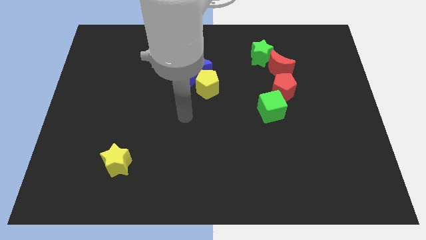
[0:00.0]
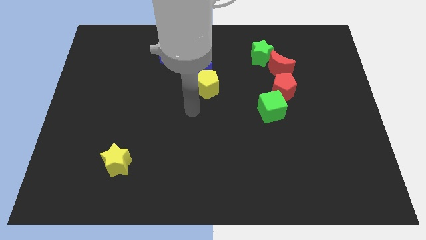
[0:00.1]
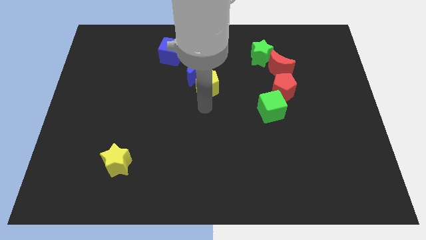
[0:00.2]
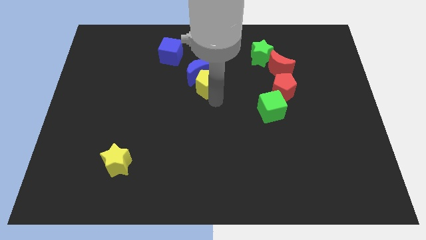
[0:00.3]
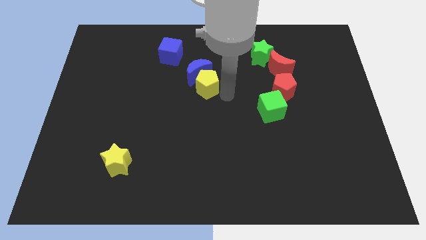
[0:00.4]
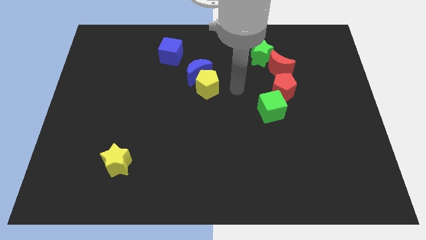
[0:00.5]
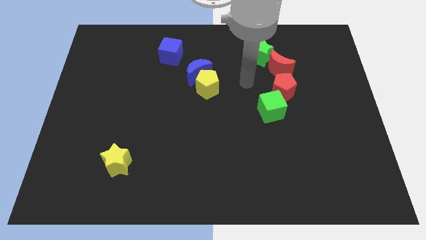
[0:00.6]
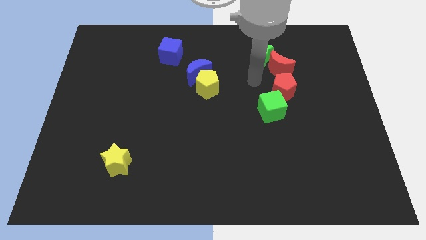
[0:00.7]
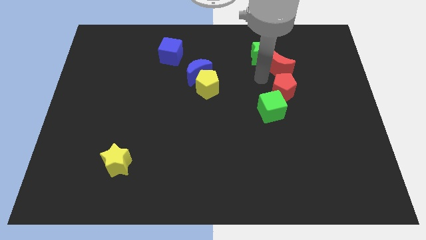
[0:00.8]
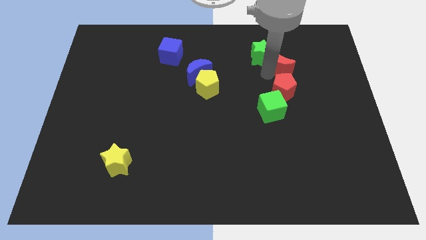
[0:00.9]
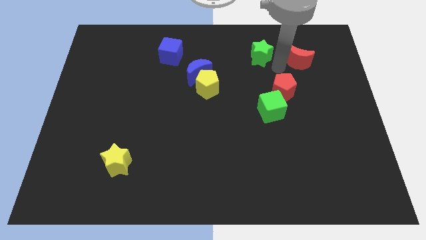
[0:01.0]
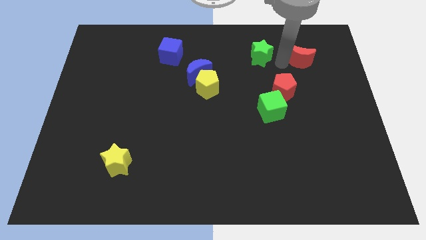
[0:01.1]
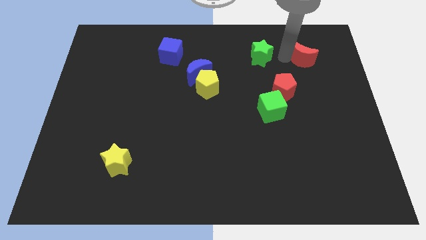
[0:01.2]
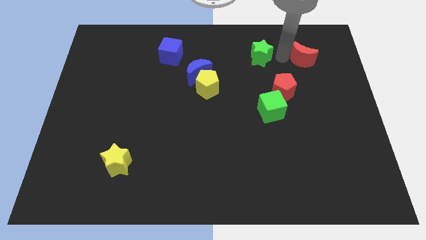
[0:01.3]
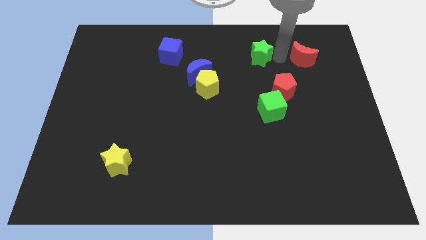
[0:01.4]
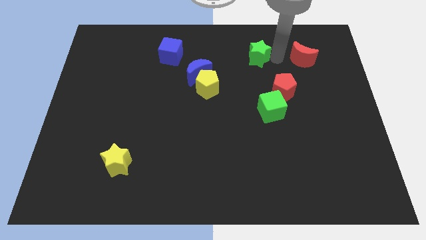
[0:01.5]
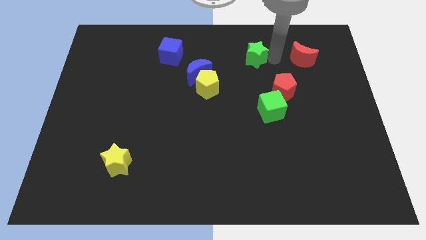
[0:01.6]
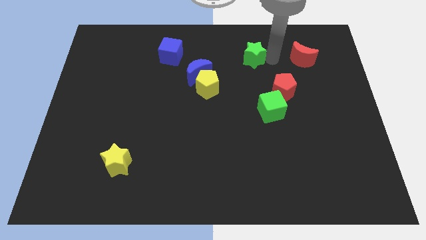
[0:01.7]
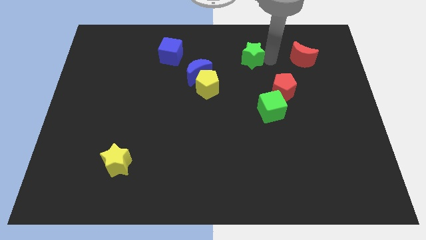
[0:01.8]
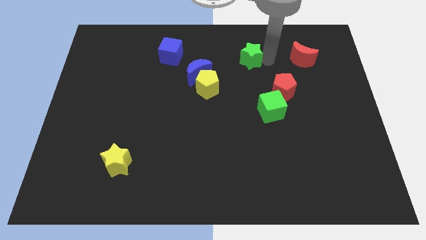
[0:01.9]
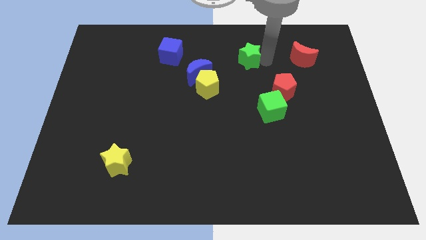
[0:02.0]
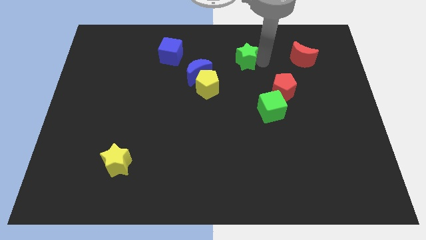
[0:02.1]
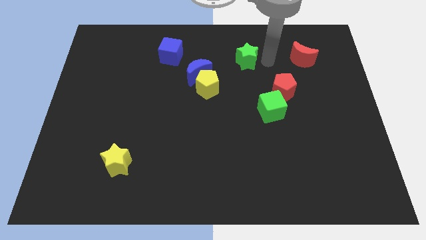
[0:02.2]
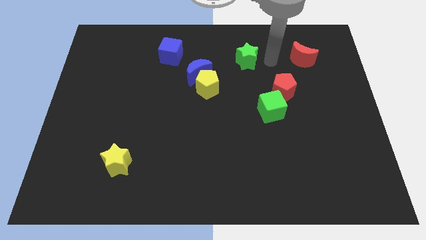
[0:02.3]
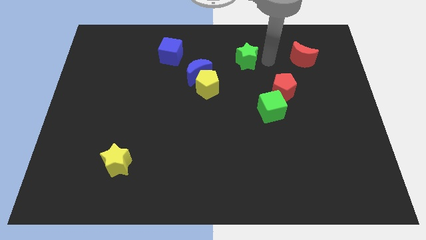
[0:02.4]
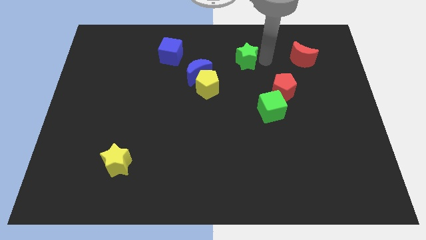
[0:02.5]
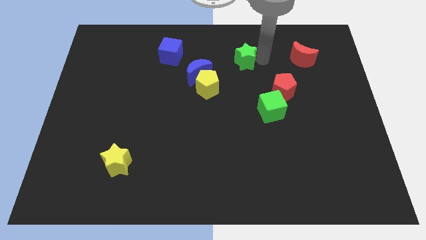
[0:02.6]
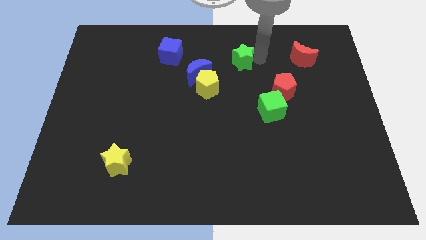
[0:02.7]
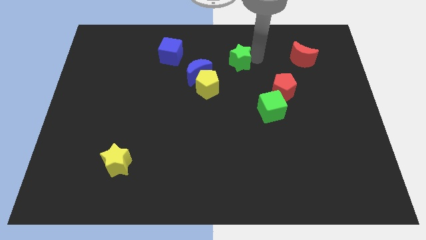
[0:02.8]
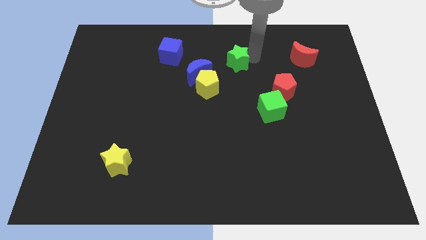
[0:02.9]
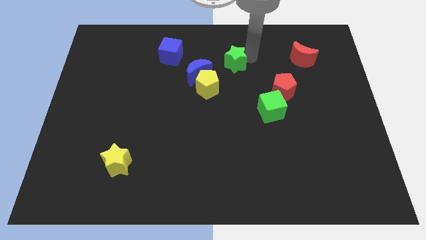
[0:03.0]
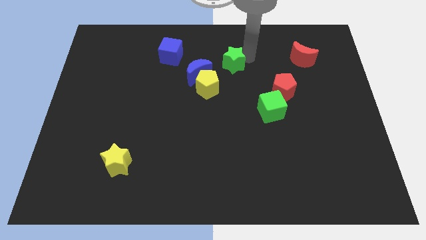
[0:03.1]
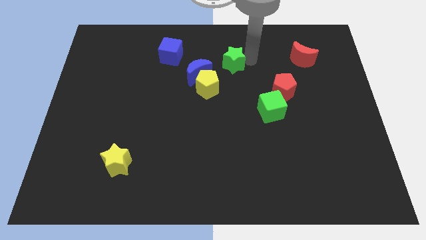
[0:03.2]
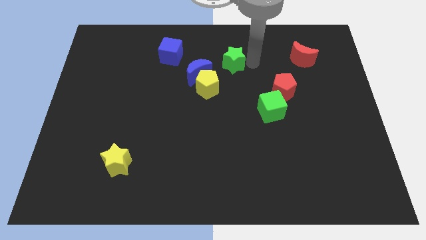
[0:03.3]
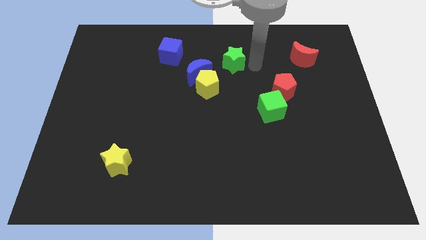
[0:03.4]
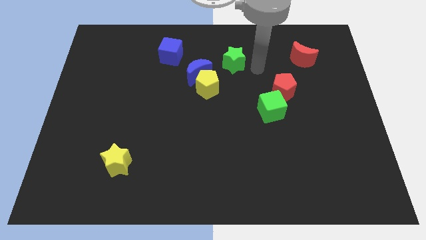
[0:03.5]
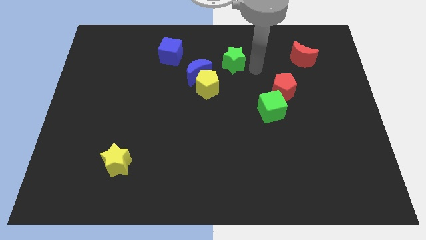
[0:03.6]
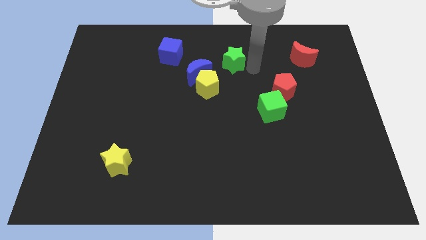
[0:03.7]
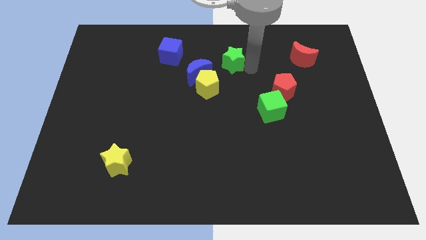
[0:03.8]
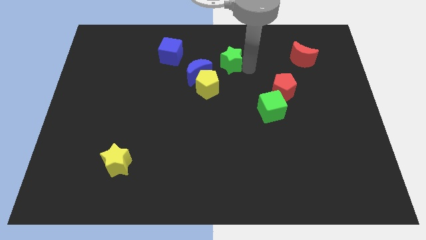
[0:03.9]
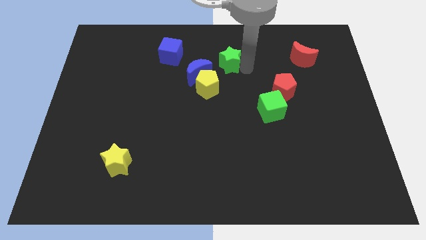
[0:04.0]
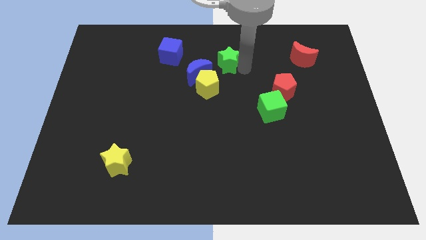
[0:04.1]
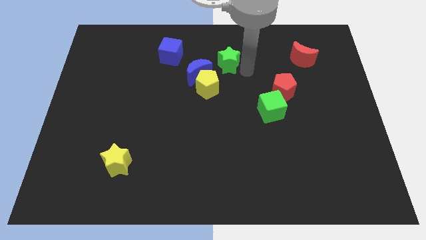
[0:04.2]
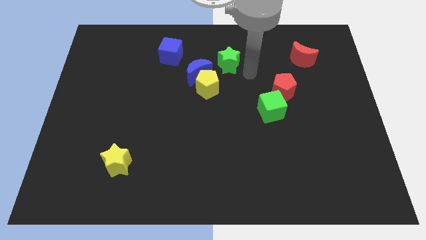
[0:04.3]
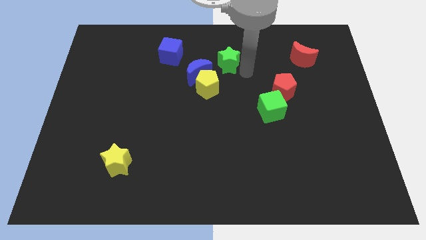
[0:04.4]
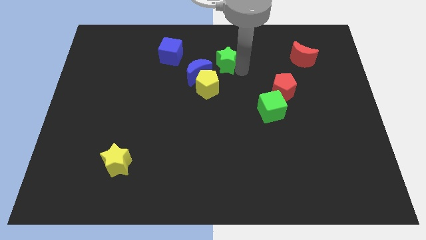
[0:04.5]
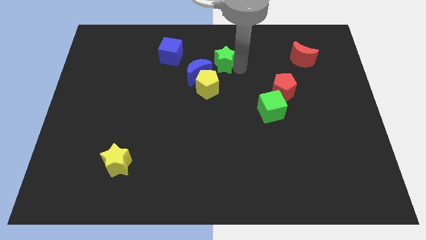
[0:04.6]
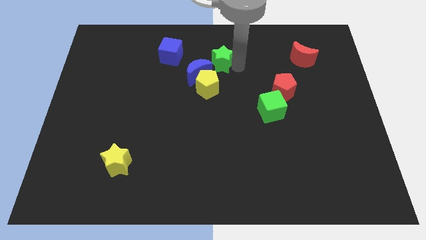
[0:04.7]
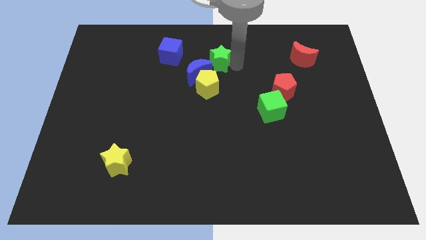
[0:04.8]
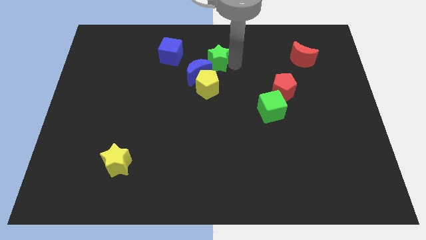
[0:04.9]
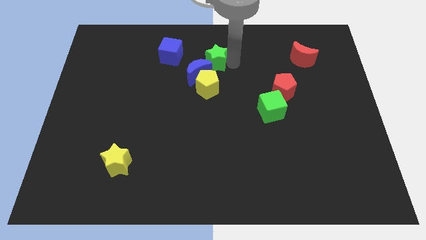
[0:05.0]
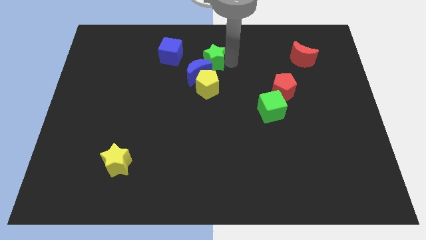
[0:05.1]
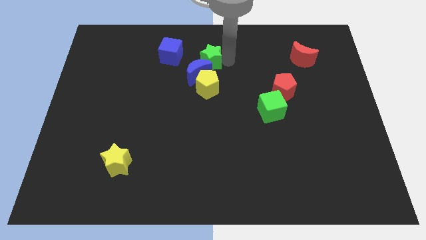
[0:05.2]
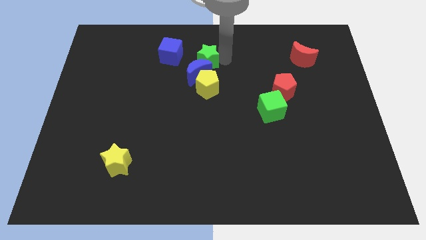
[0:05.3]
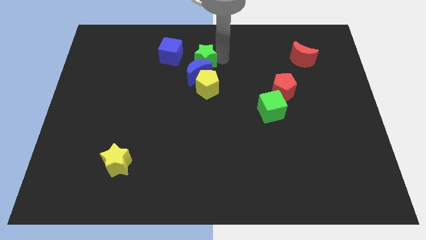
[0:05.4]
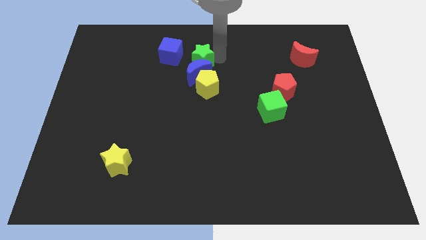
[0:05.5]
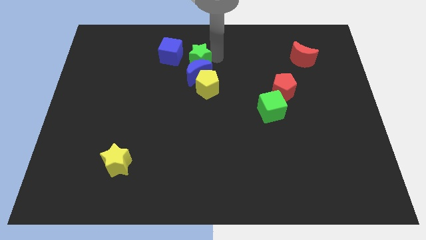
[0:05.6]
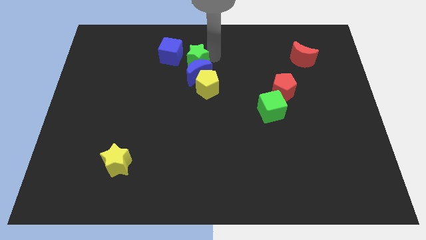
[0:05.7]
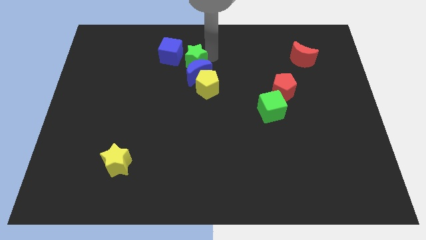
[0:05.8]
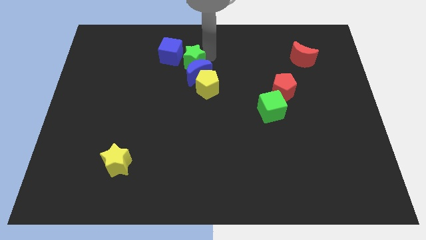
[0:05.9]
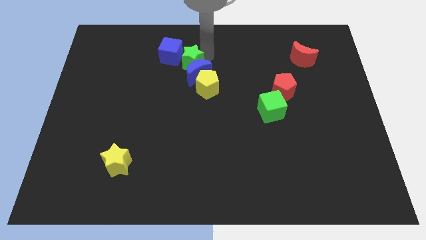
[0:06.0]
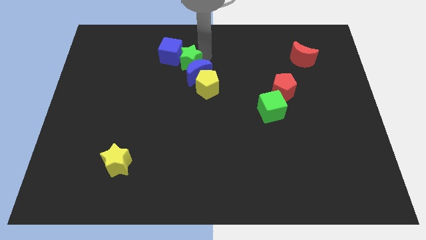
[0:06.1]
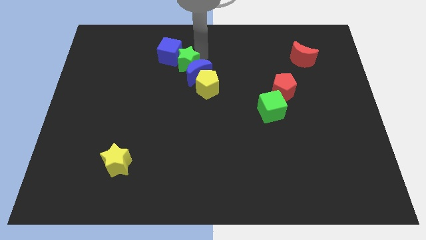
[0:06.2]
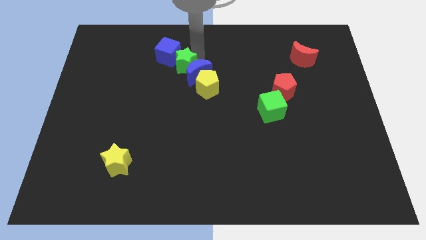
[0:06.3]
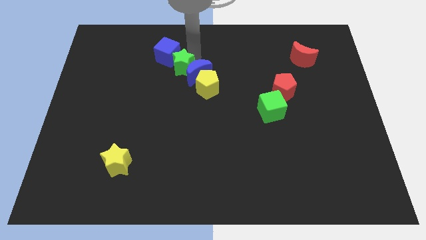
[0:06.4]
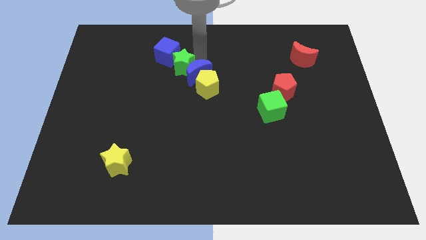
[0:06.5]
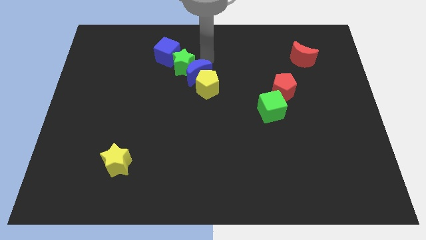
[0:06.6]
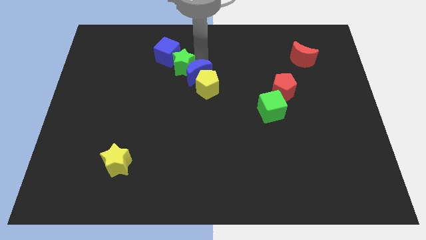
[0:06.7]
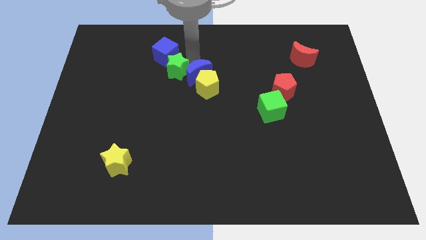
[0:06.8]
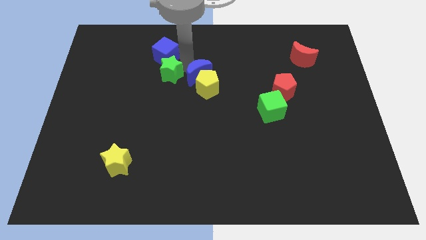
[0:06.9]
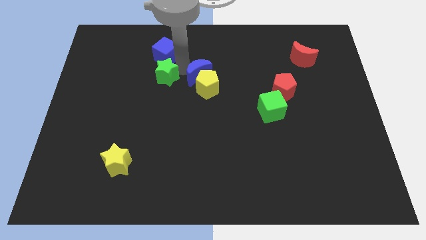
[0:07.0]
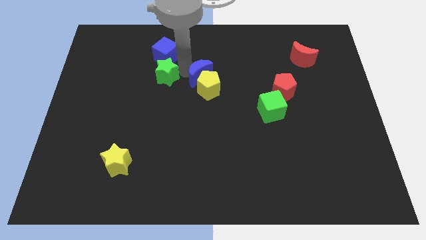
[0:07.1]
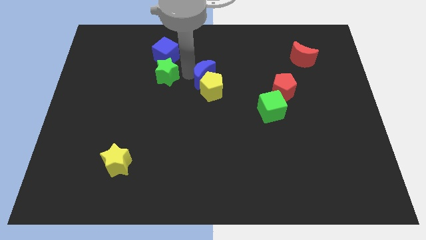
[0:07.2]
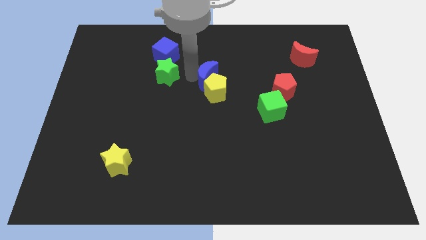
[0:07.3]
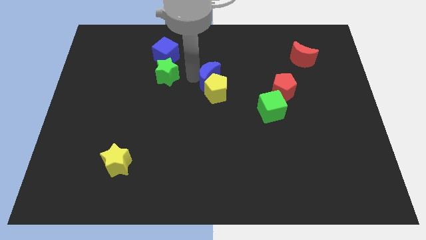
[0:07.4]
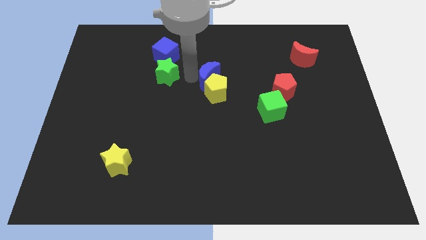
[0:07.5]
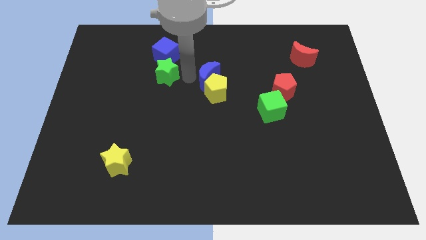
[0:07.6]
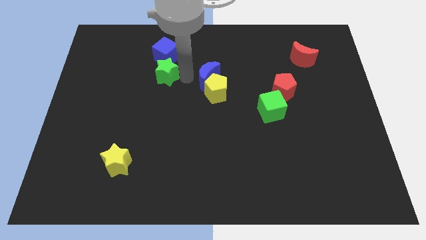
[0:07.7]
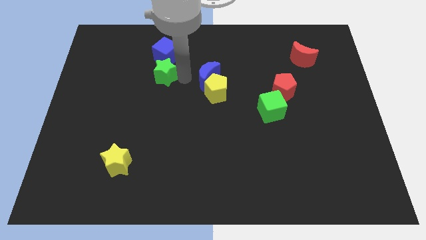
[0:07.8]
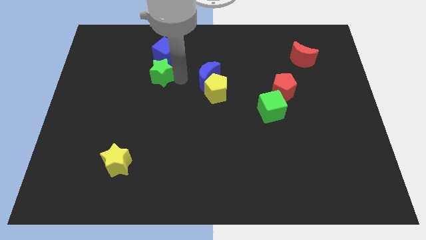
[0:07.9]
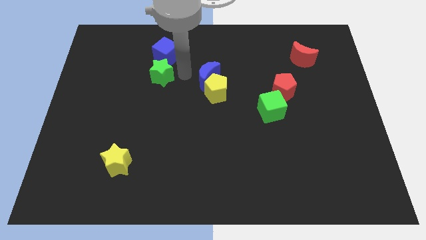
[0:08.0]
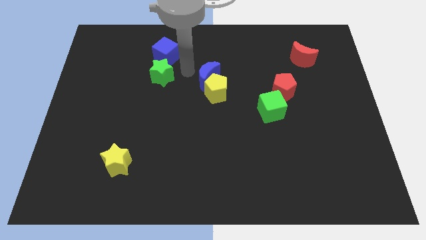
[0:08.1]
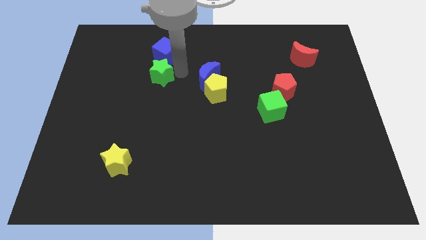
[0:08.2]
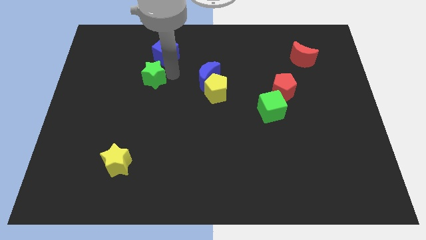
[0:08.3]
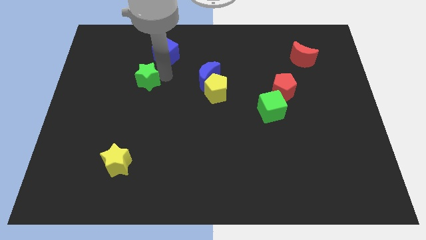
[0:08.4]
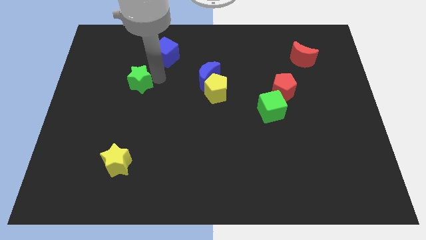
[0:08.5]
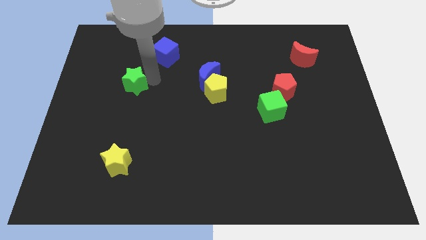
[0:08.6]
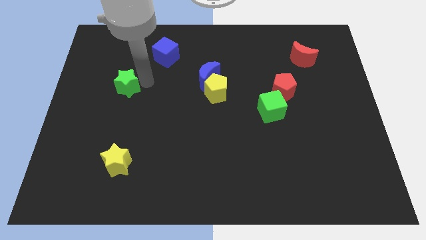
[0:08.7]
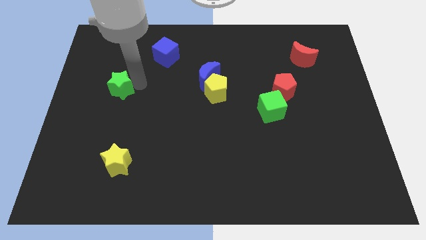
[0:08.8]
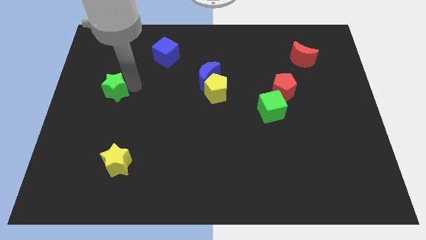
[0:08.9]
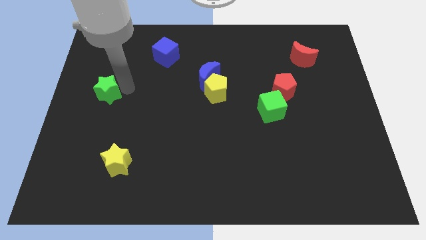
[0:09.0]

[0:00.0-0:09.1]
put the green star to the left side of the board
